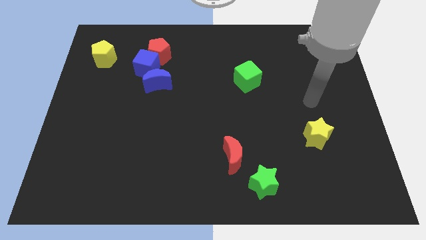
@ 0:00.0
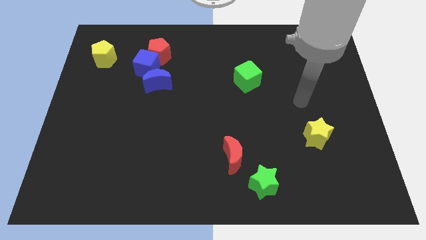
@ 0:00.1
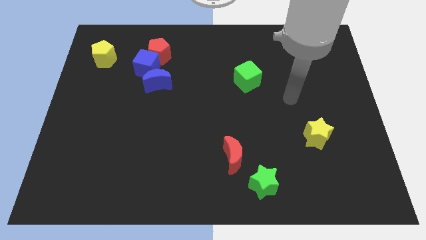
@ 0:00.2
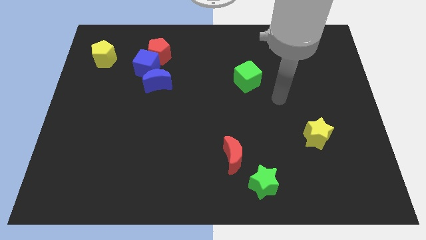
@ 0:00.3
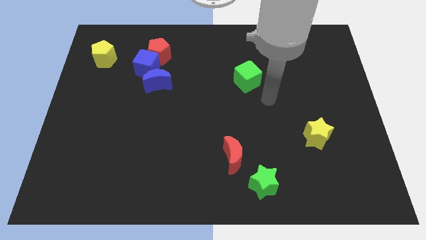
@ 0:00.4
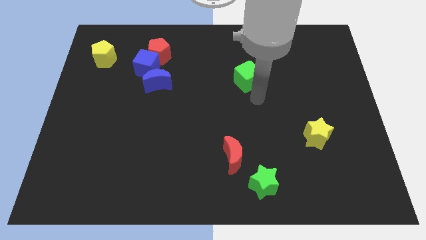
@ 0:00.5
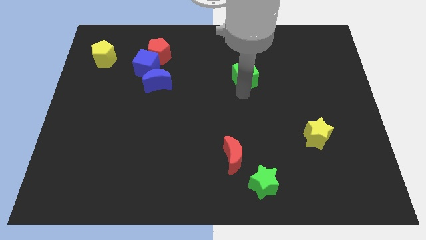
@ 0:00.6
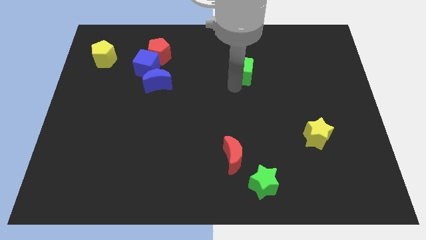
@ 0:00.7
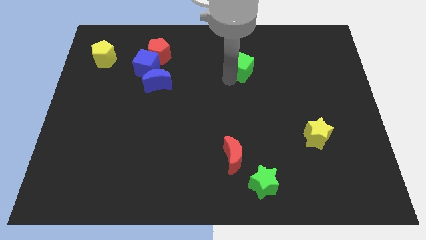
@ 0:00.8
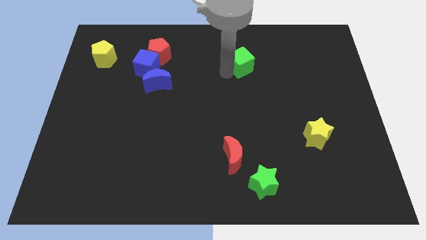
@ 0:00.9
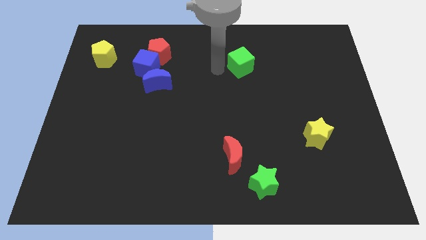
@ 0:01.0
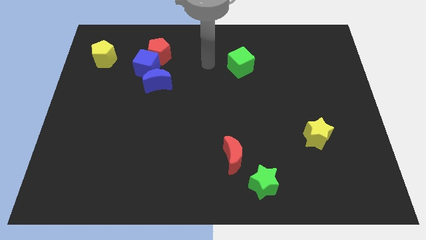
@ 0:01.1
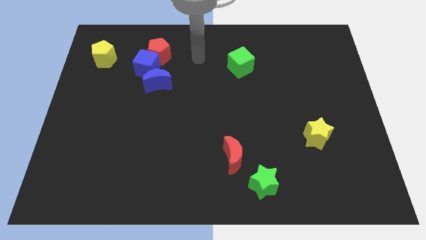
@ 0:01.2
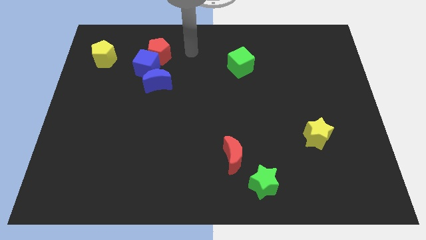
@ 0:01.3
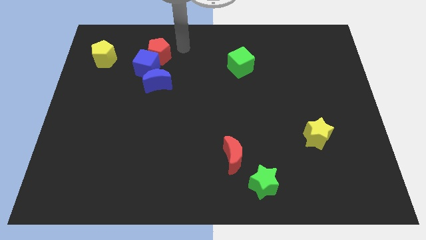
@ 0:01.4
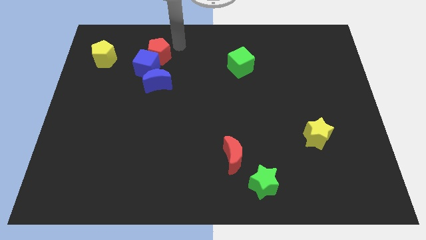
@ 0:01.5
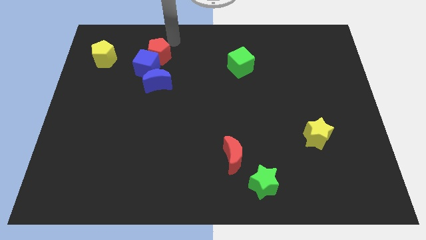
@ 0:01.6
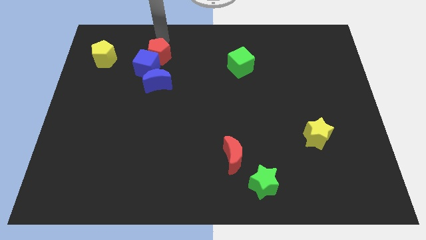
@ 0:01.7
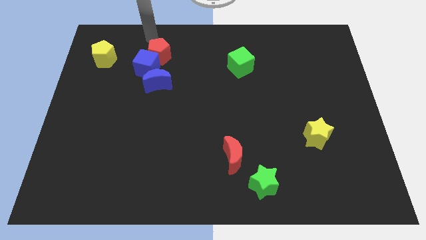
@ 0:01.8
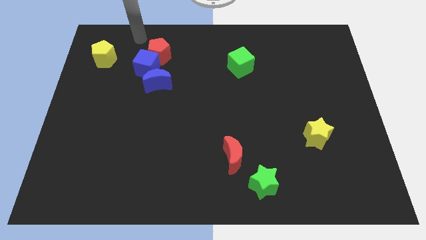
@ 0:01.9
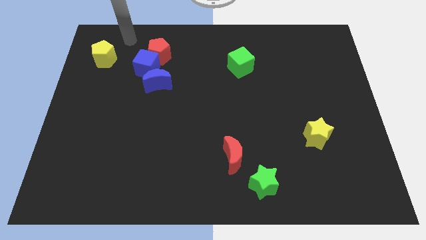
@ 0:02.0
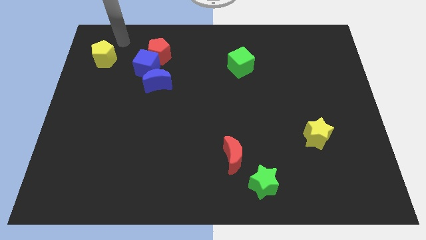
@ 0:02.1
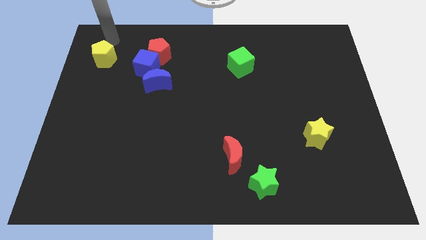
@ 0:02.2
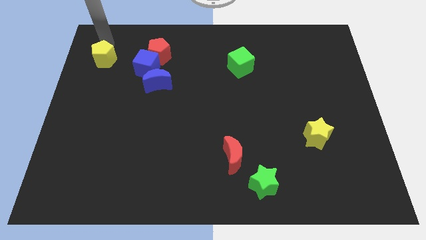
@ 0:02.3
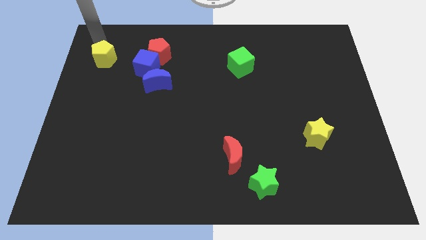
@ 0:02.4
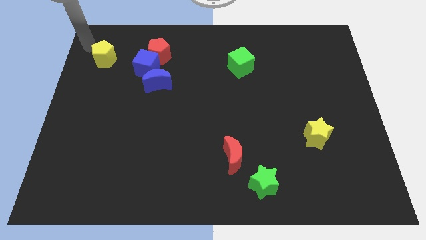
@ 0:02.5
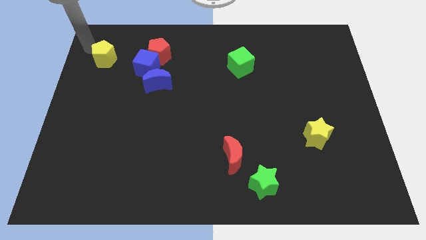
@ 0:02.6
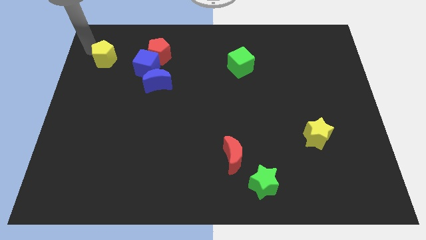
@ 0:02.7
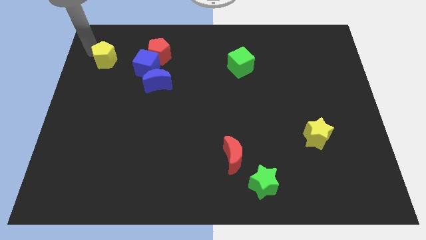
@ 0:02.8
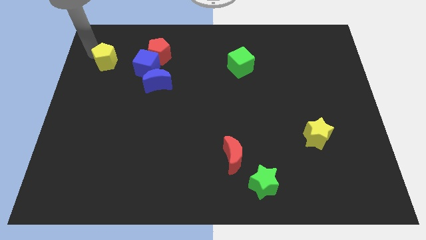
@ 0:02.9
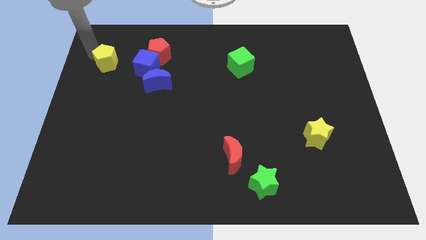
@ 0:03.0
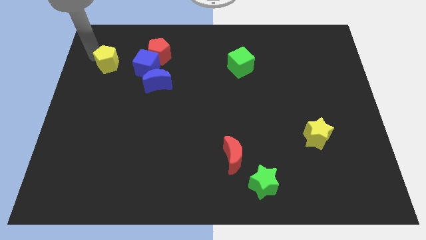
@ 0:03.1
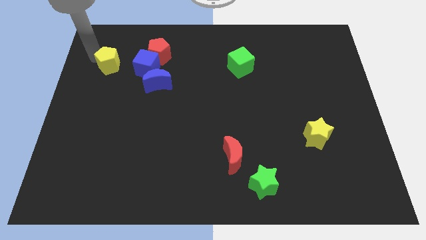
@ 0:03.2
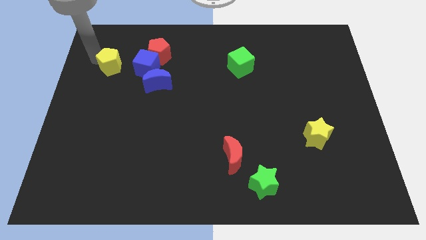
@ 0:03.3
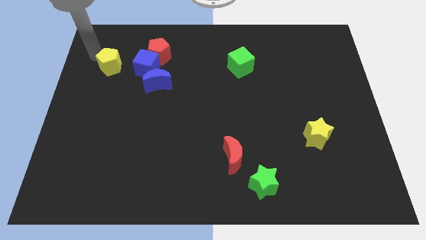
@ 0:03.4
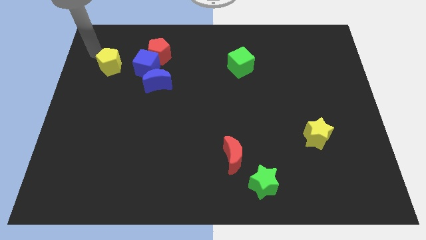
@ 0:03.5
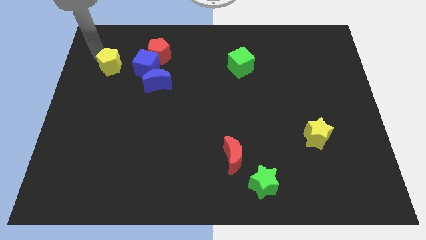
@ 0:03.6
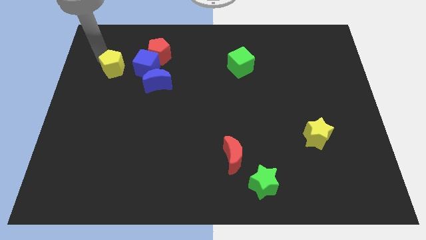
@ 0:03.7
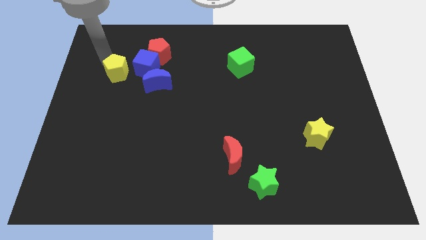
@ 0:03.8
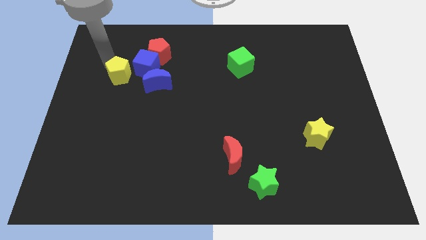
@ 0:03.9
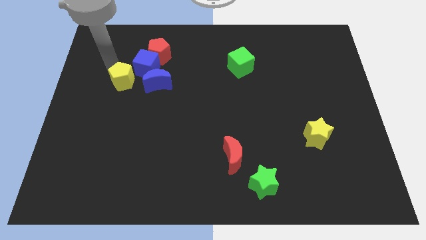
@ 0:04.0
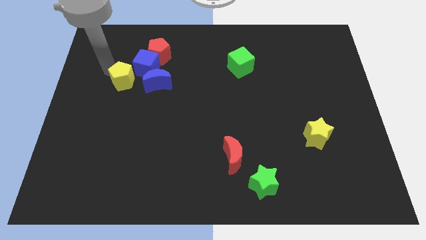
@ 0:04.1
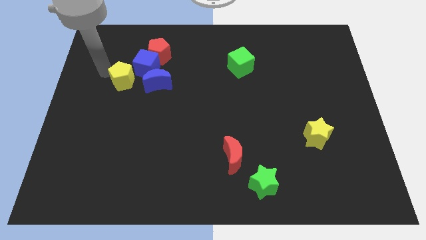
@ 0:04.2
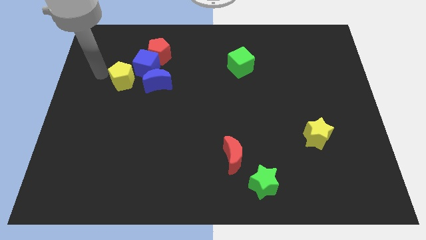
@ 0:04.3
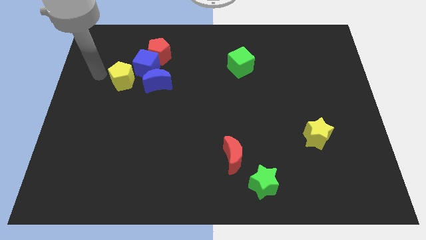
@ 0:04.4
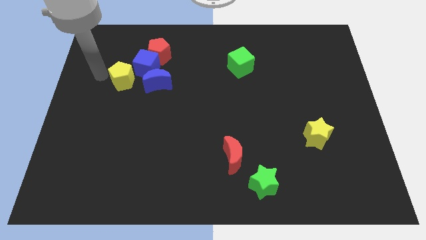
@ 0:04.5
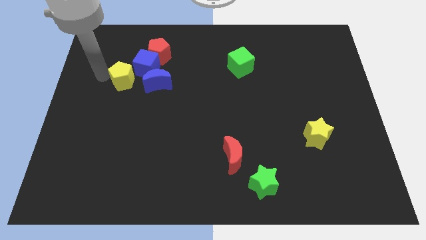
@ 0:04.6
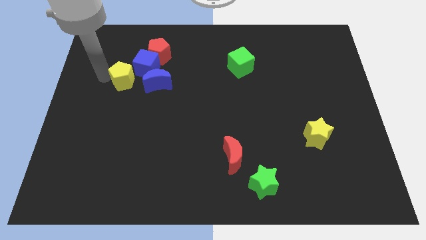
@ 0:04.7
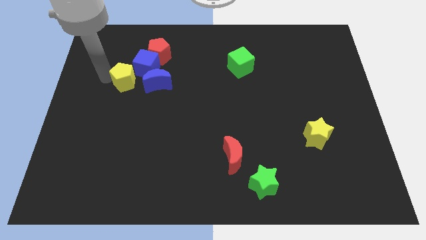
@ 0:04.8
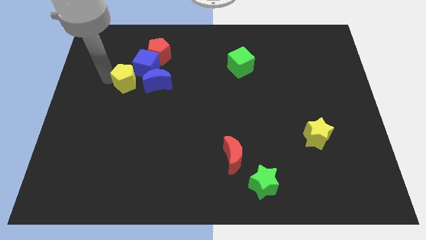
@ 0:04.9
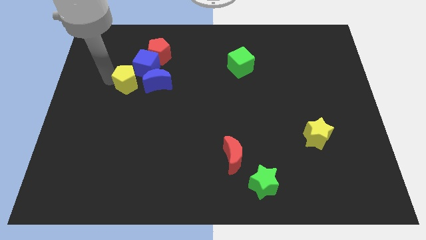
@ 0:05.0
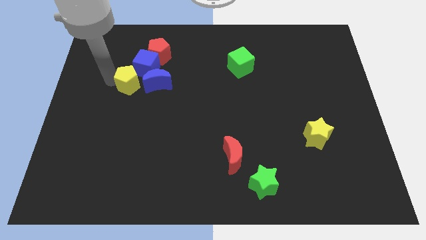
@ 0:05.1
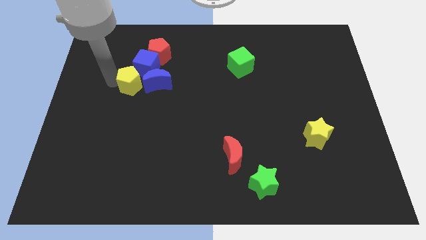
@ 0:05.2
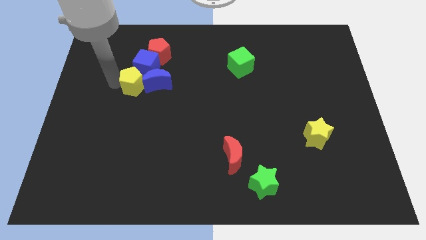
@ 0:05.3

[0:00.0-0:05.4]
push the yellow pentagon towards the blue moon

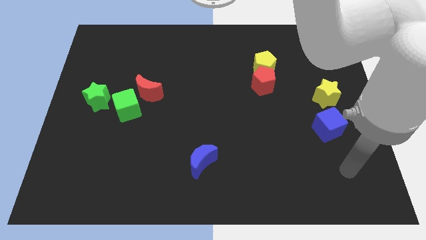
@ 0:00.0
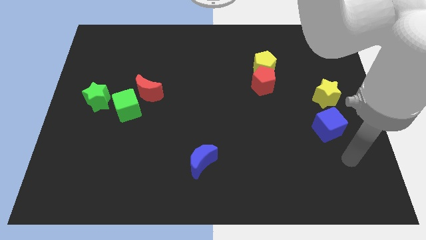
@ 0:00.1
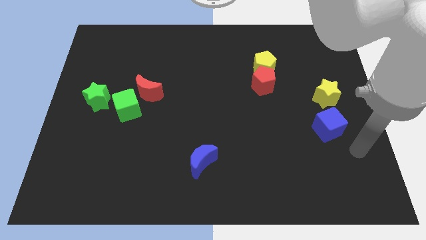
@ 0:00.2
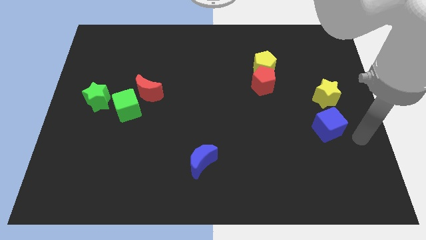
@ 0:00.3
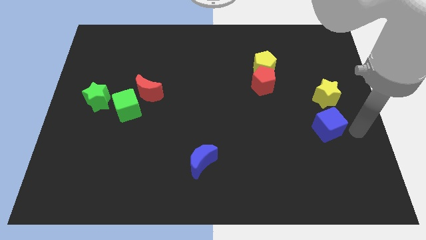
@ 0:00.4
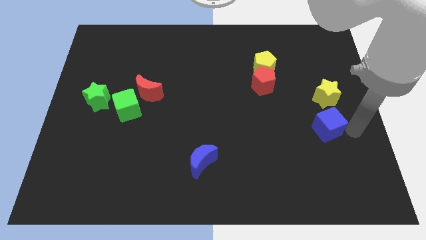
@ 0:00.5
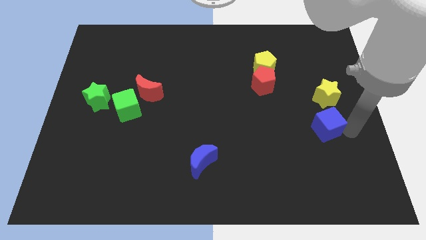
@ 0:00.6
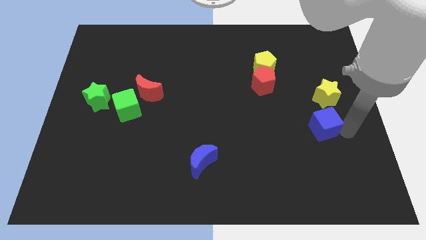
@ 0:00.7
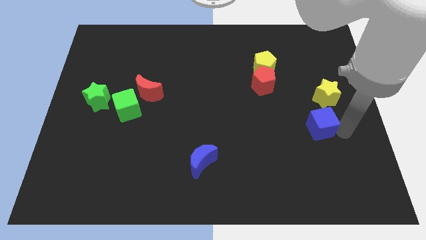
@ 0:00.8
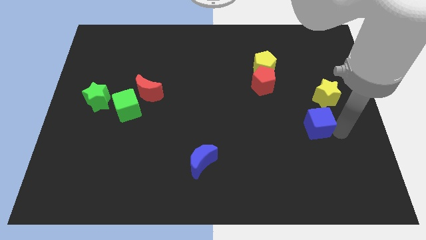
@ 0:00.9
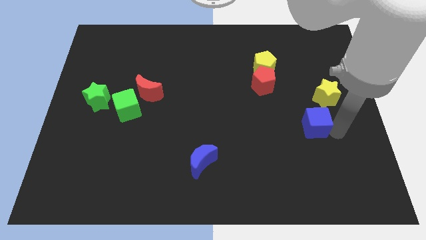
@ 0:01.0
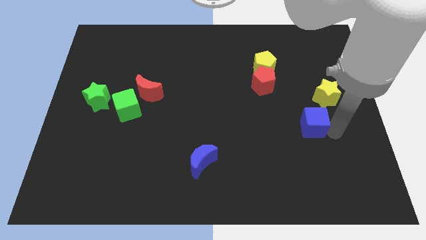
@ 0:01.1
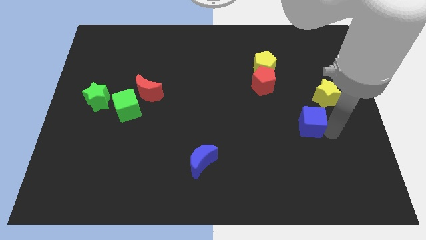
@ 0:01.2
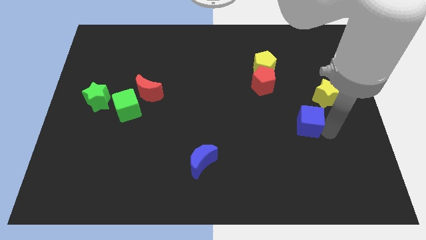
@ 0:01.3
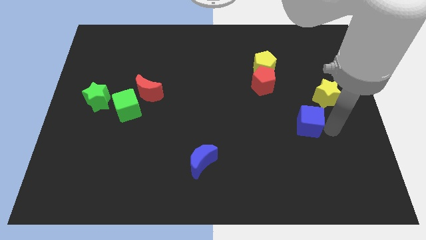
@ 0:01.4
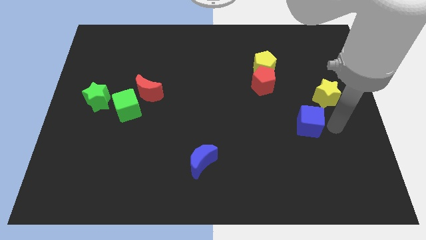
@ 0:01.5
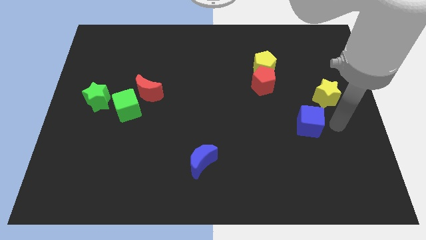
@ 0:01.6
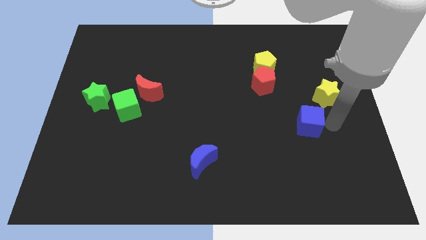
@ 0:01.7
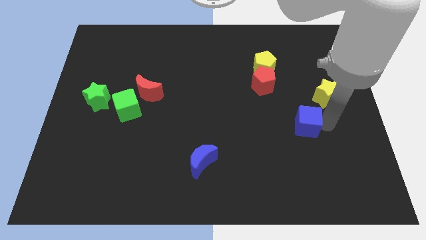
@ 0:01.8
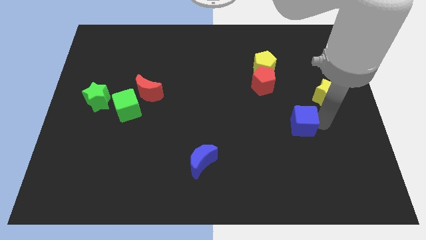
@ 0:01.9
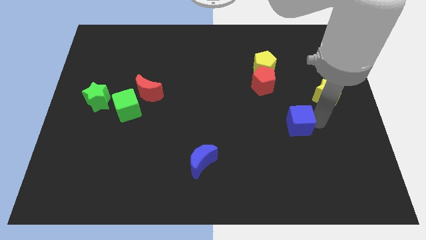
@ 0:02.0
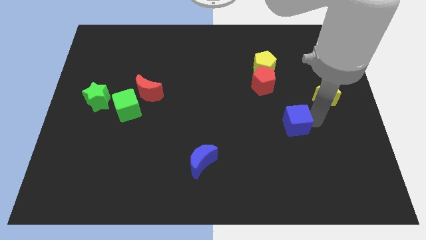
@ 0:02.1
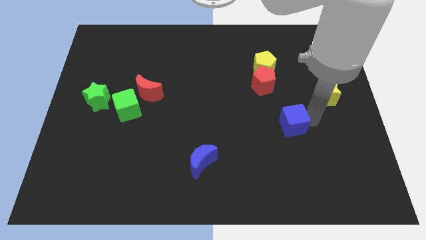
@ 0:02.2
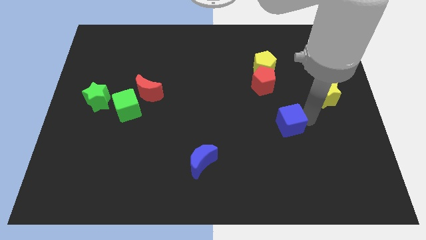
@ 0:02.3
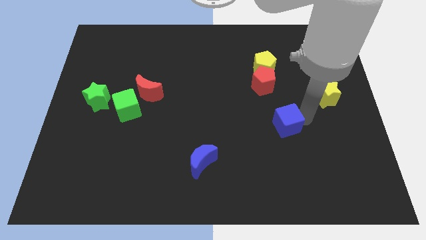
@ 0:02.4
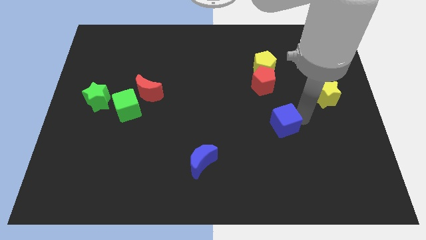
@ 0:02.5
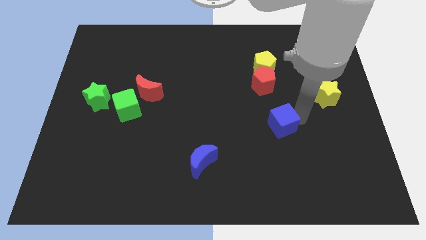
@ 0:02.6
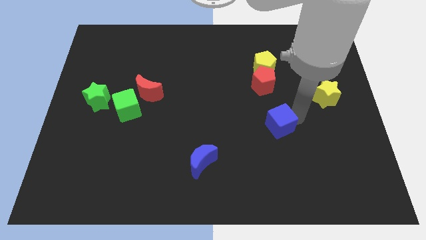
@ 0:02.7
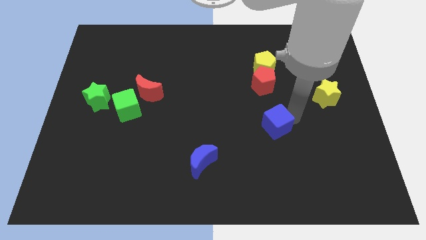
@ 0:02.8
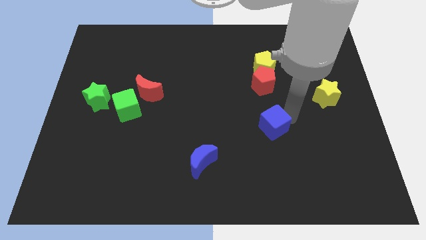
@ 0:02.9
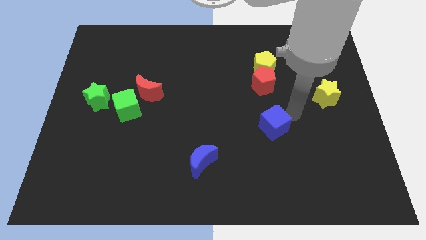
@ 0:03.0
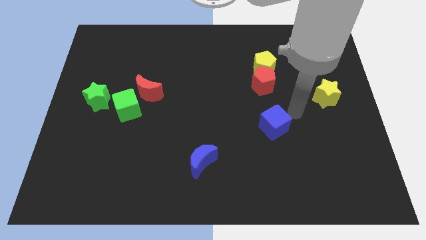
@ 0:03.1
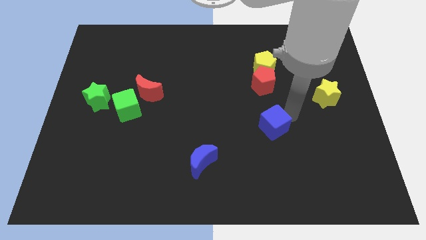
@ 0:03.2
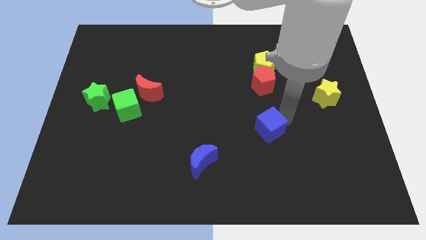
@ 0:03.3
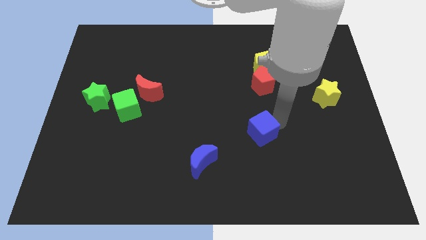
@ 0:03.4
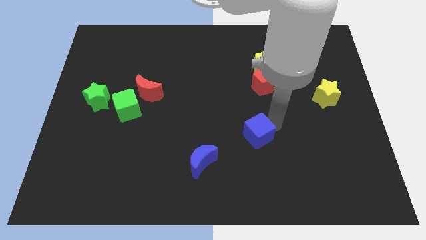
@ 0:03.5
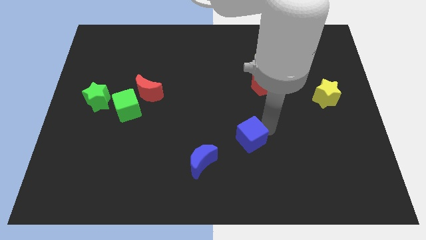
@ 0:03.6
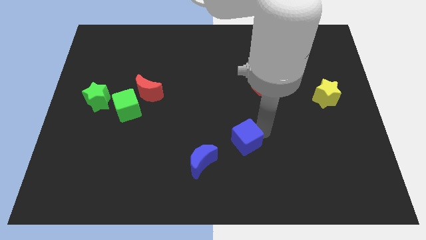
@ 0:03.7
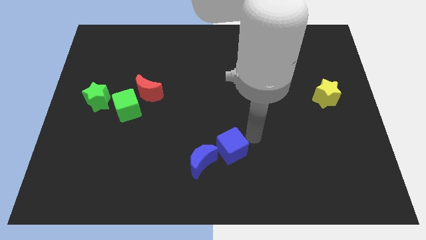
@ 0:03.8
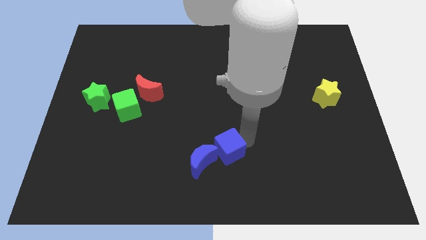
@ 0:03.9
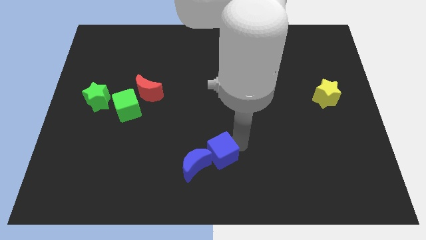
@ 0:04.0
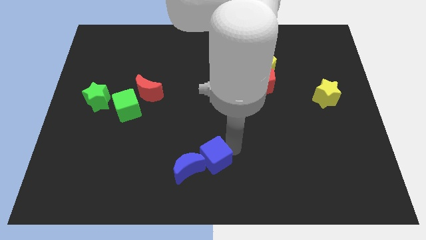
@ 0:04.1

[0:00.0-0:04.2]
slide the blue cube towards the blue moon
